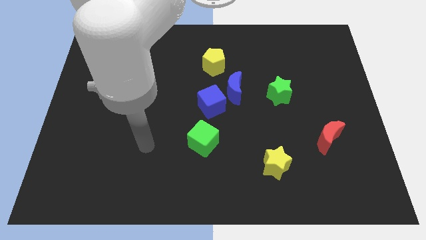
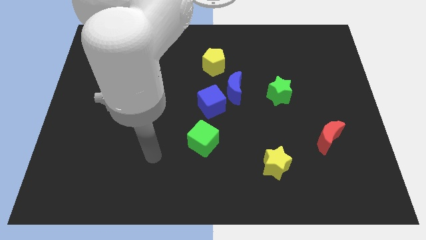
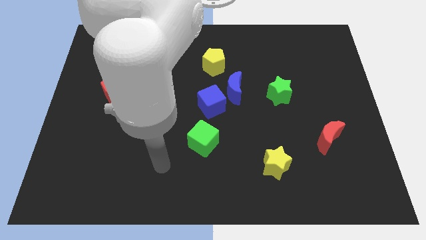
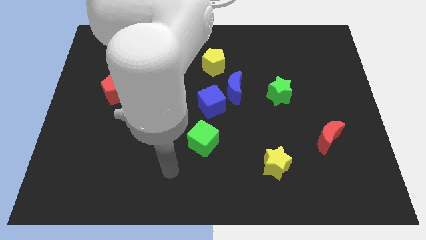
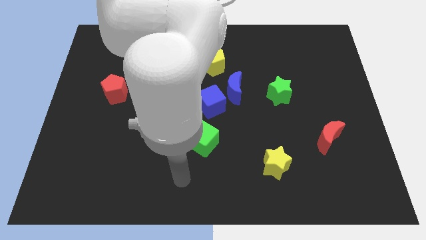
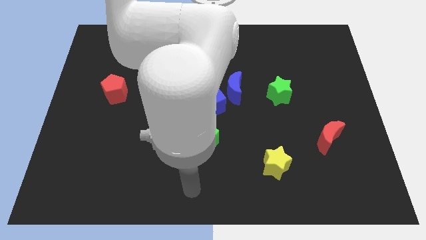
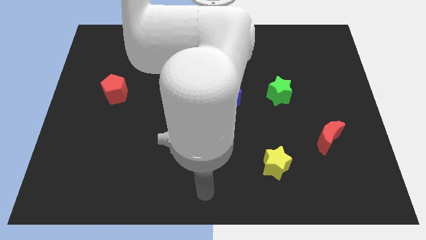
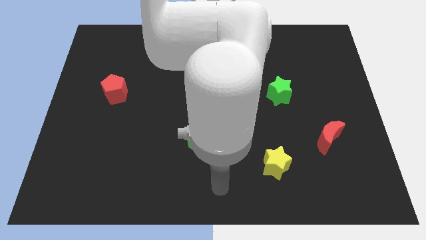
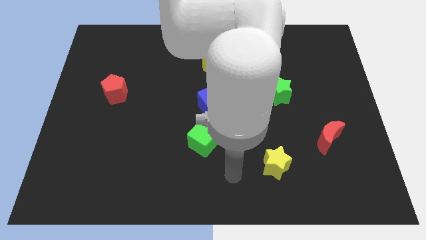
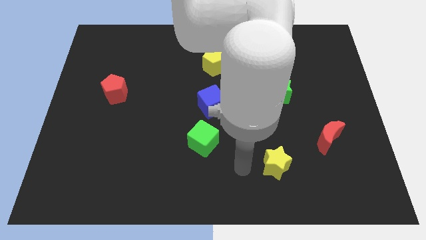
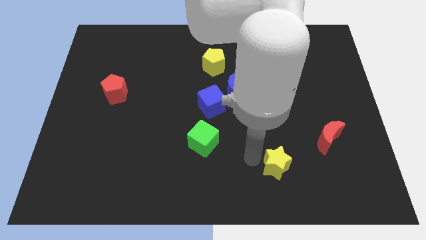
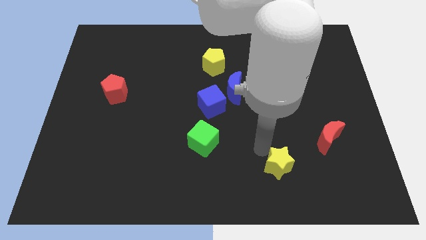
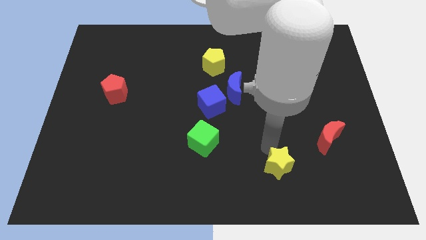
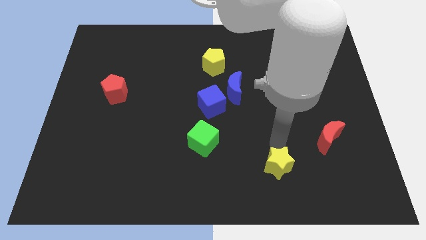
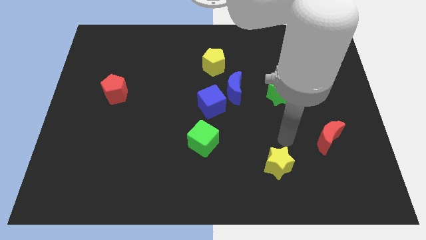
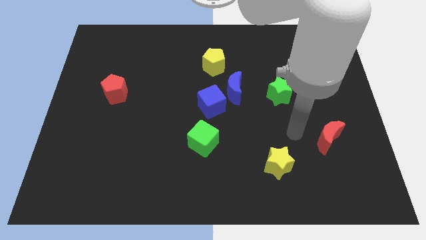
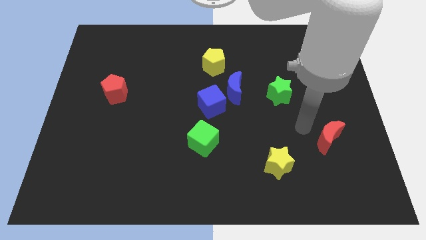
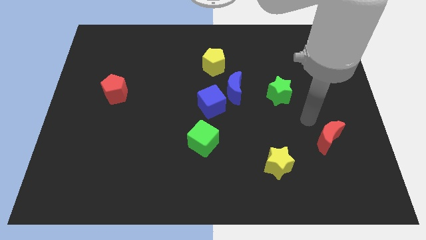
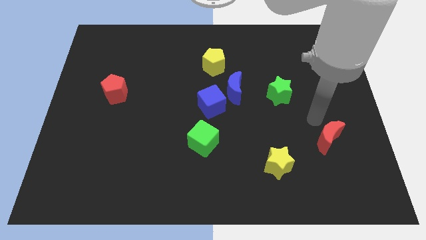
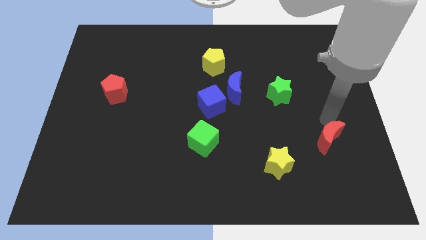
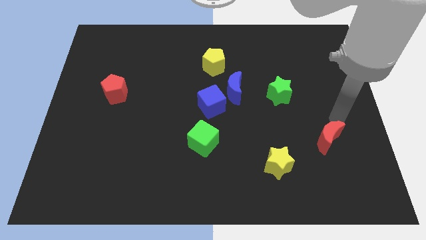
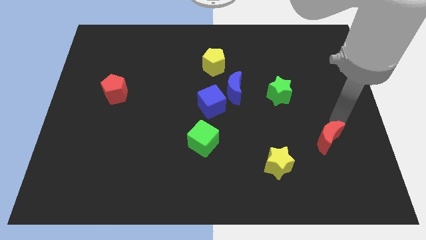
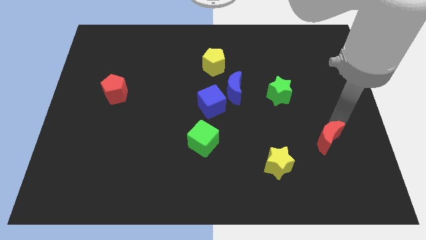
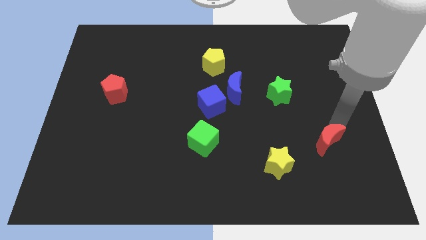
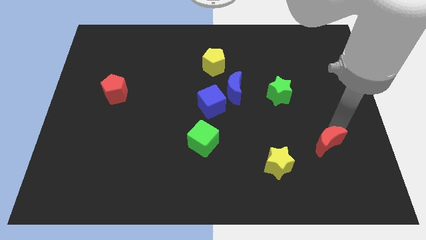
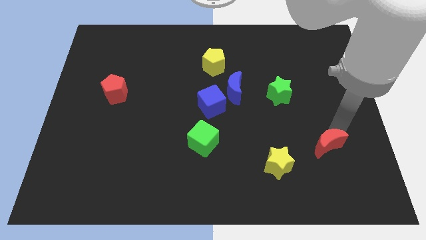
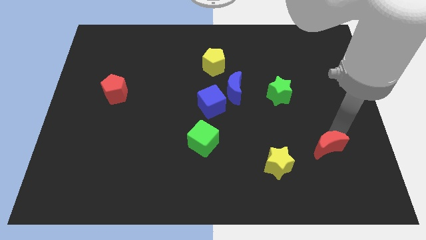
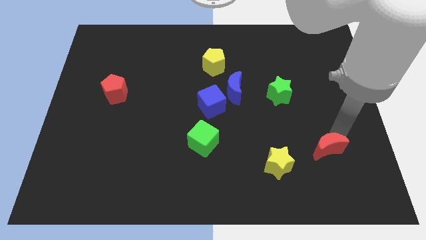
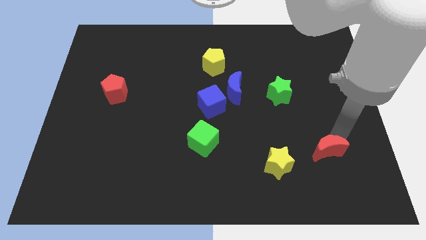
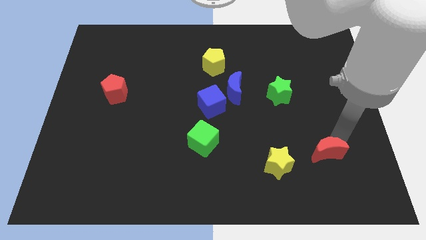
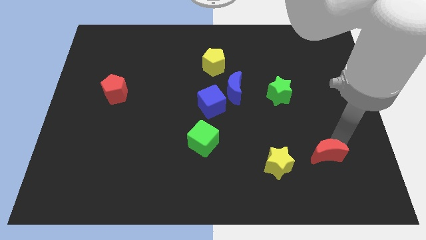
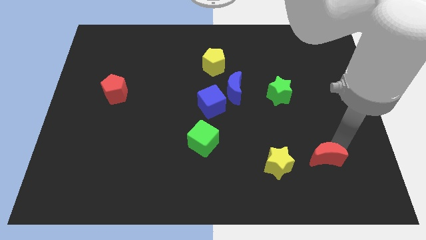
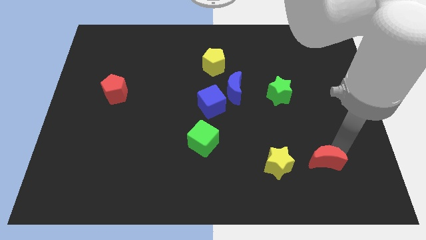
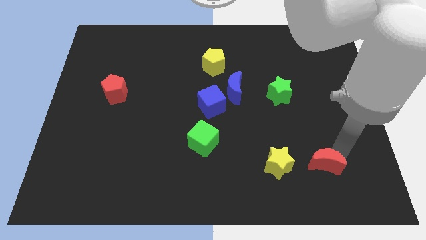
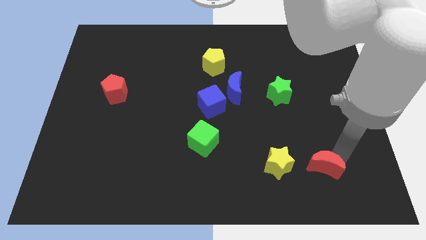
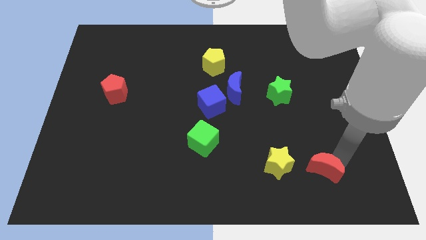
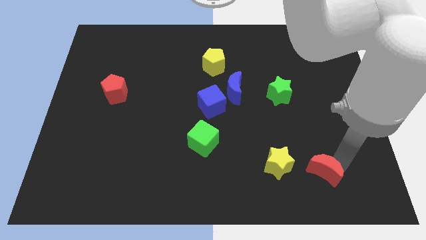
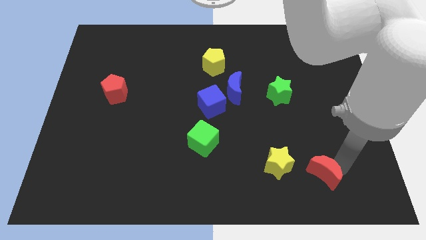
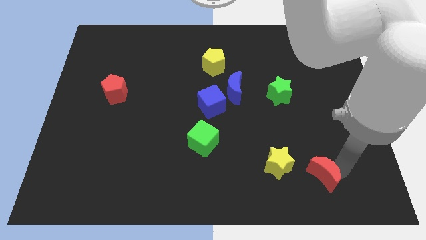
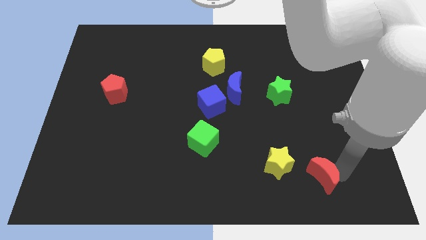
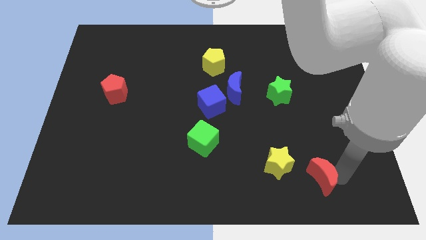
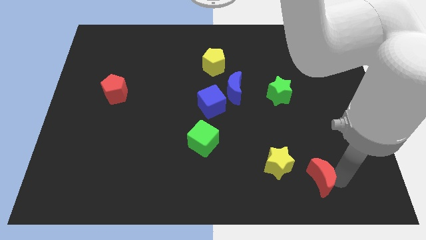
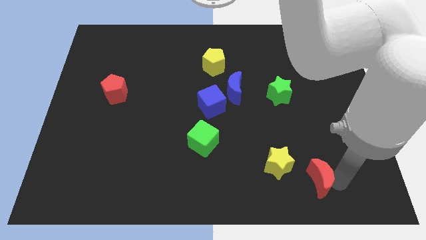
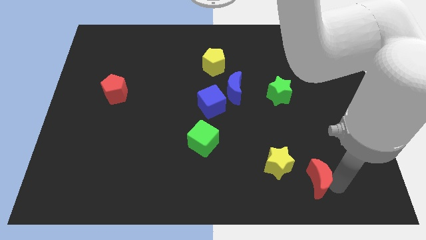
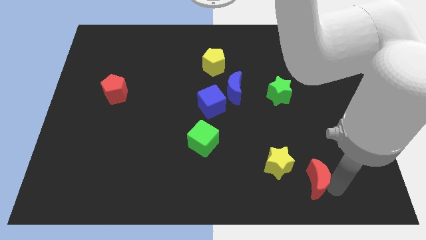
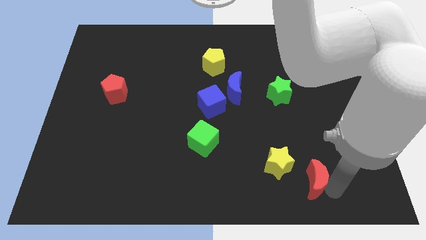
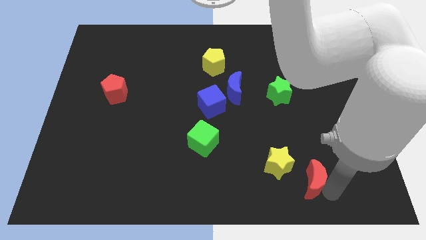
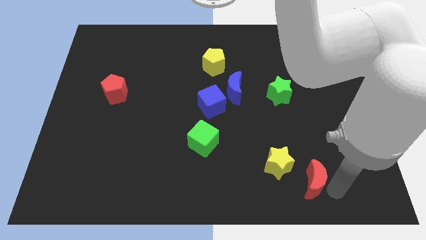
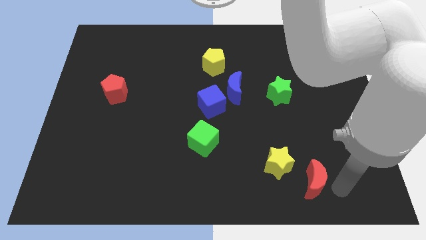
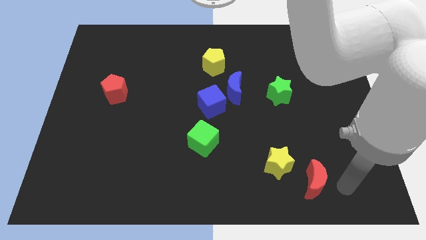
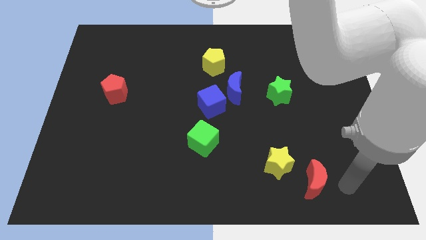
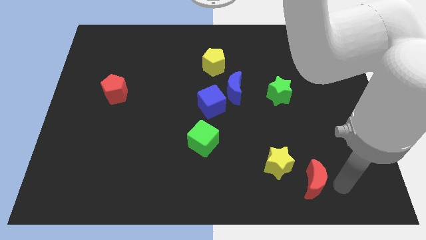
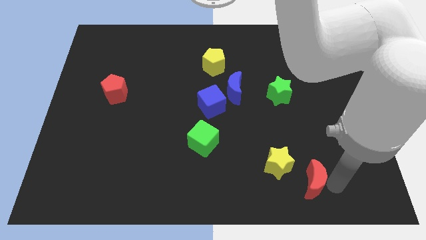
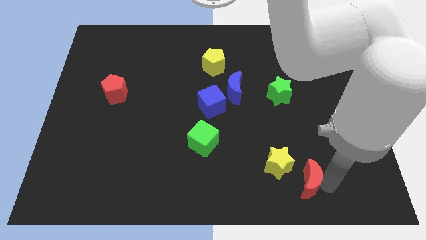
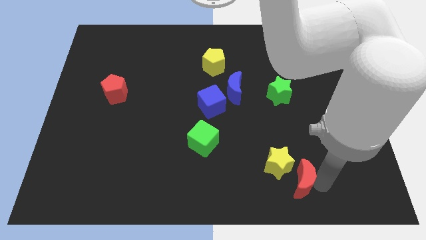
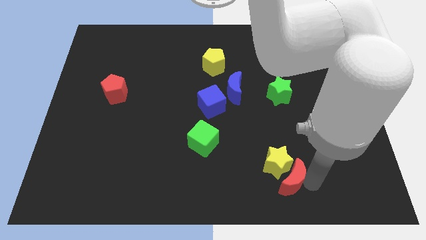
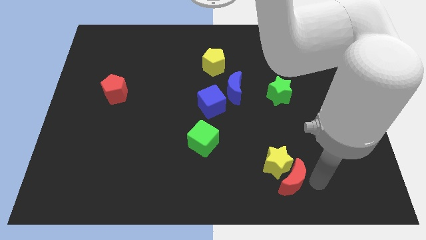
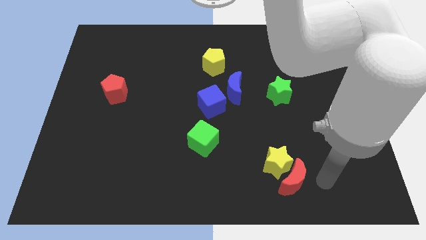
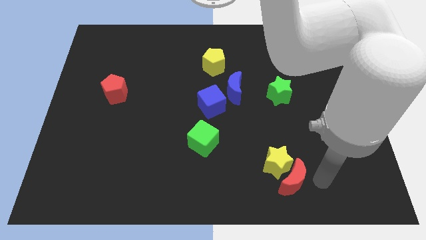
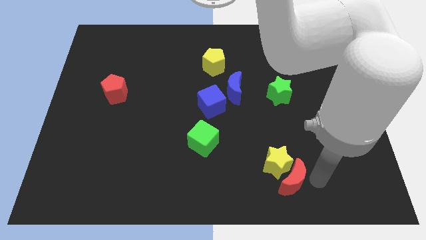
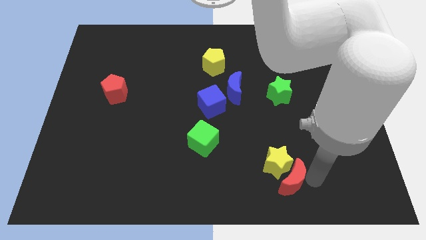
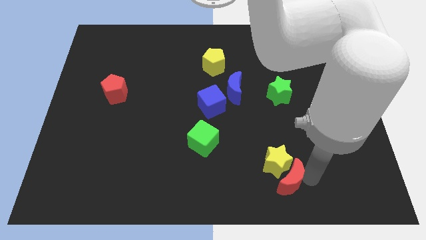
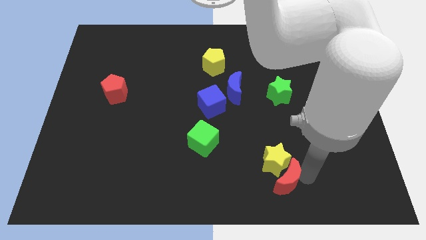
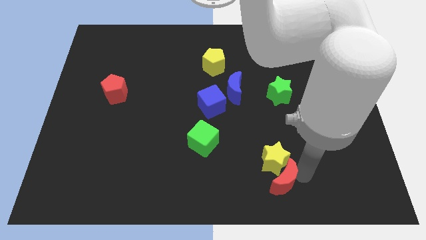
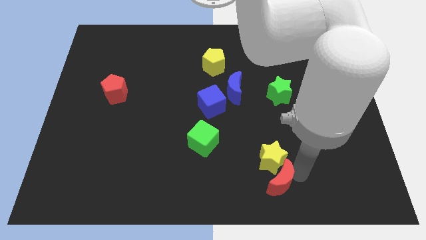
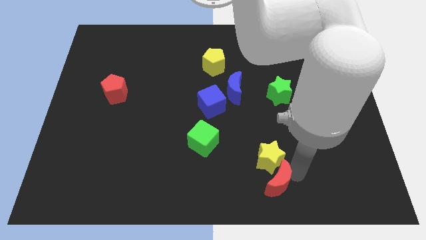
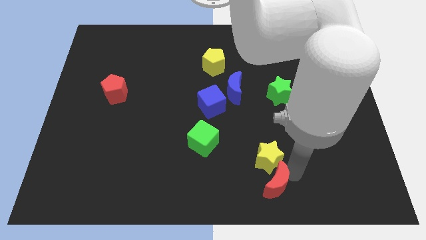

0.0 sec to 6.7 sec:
slide the red moon to the bottom side
